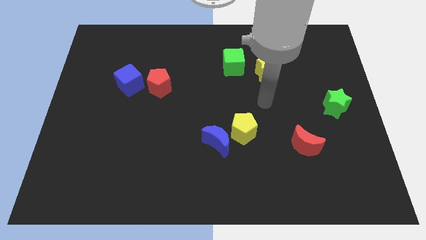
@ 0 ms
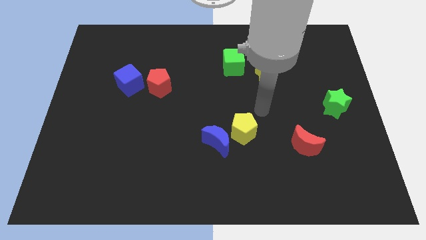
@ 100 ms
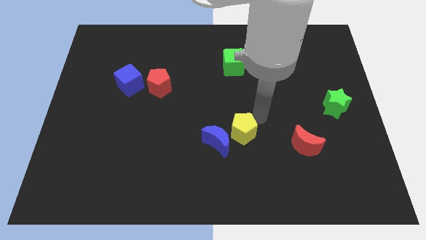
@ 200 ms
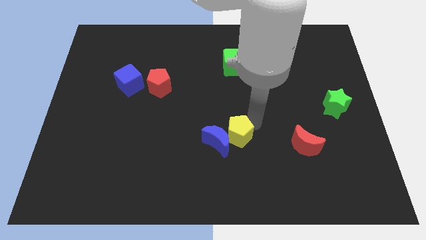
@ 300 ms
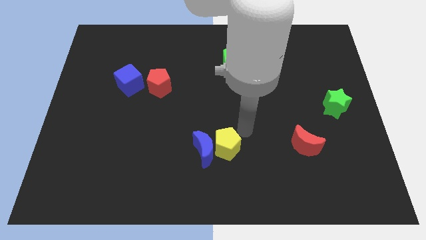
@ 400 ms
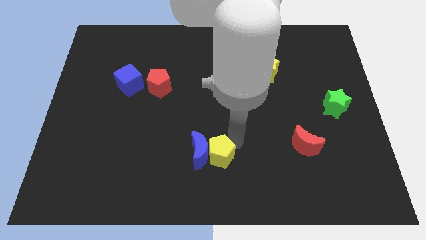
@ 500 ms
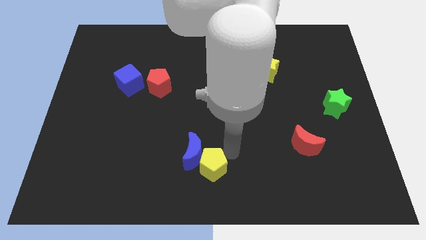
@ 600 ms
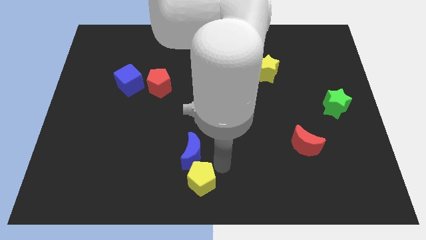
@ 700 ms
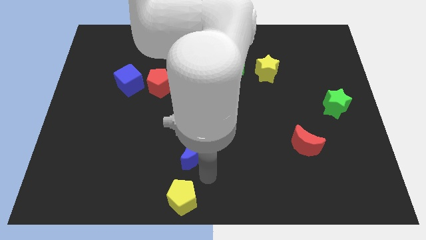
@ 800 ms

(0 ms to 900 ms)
separate the blue moon from the yellow pentagon

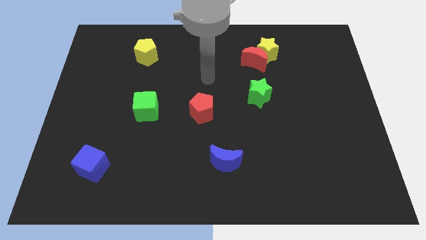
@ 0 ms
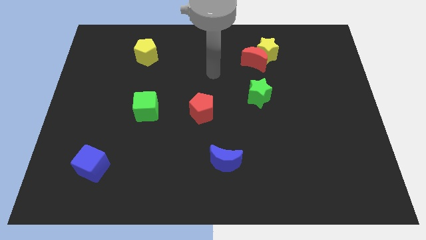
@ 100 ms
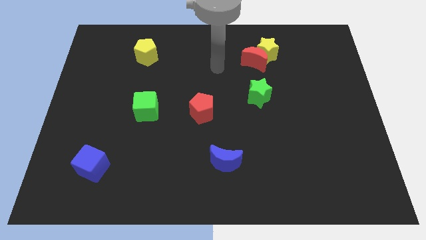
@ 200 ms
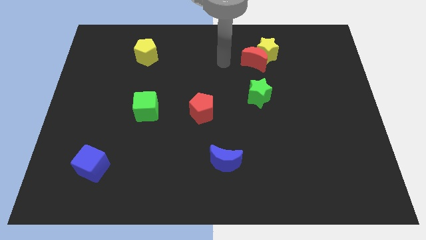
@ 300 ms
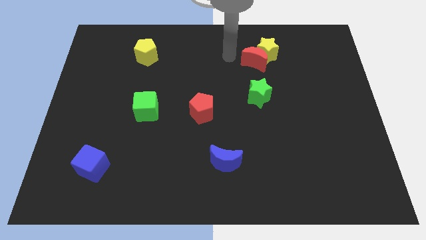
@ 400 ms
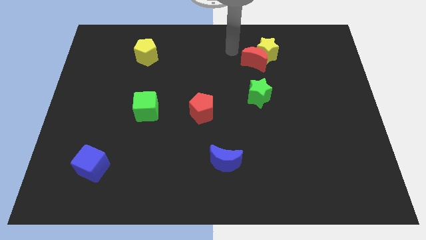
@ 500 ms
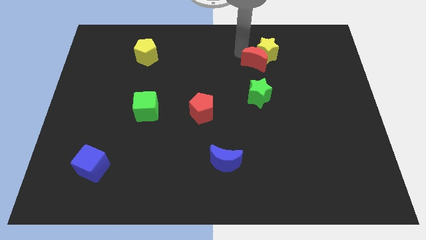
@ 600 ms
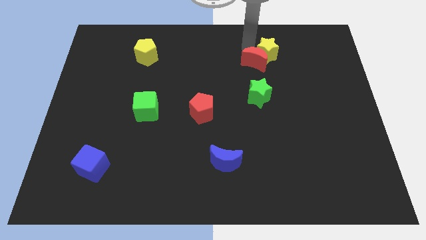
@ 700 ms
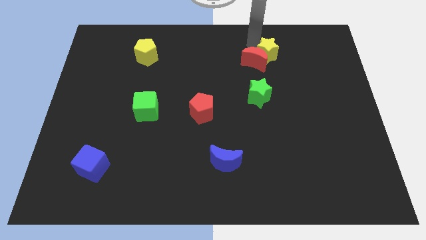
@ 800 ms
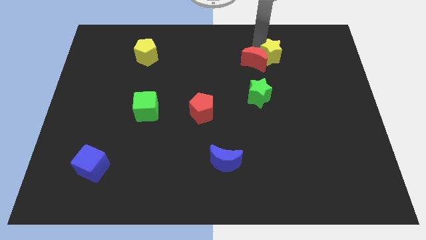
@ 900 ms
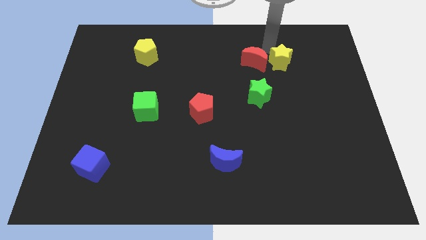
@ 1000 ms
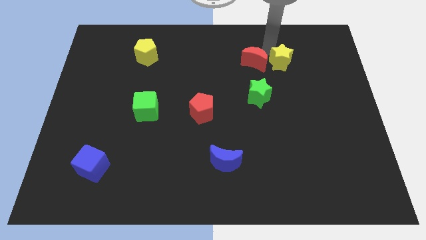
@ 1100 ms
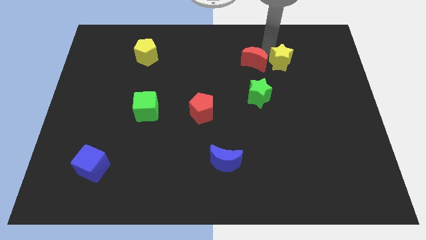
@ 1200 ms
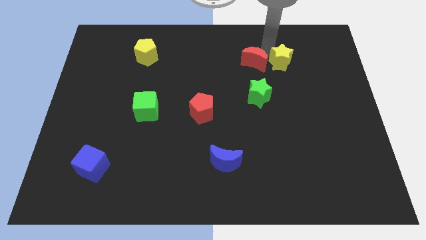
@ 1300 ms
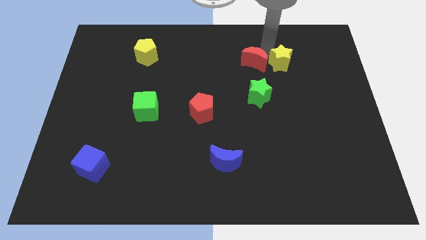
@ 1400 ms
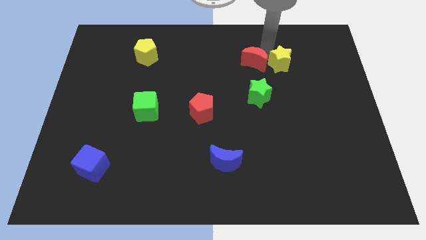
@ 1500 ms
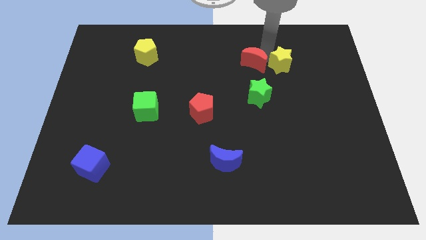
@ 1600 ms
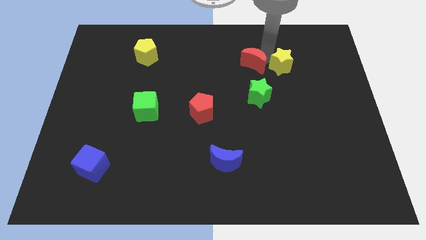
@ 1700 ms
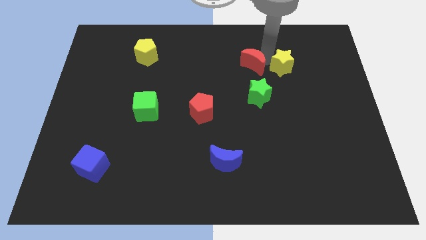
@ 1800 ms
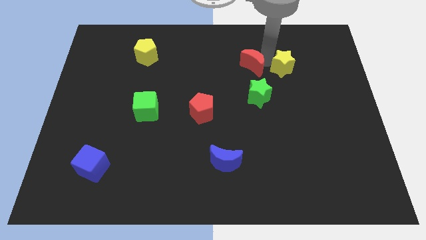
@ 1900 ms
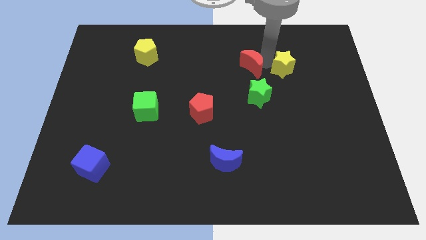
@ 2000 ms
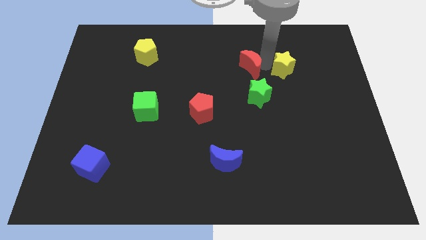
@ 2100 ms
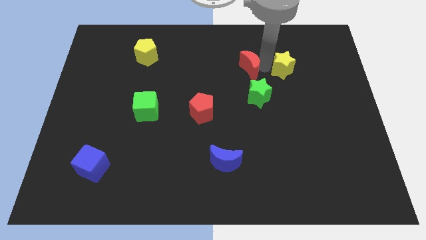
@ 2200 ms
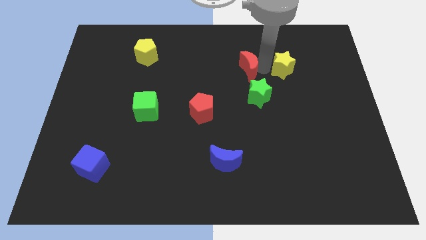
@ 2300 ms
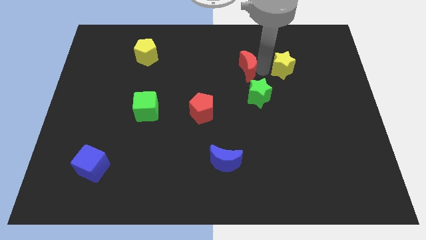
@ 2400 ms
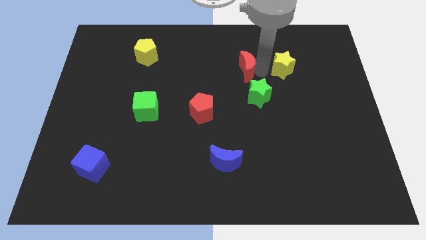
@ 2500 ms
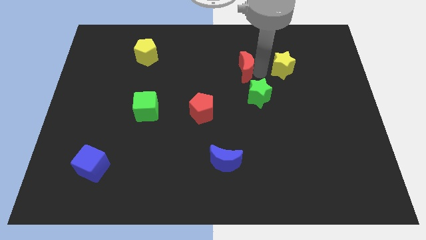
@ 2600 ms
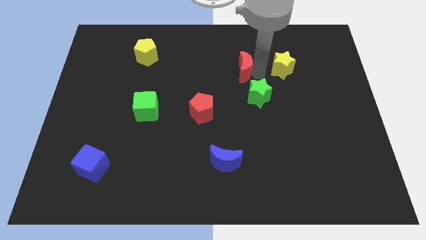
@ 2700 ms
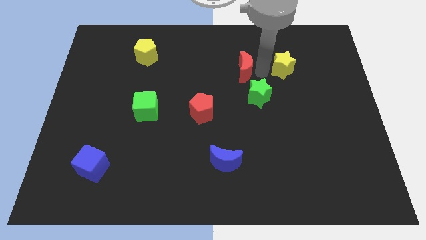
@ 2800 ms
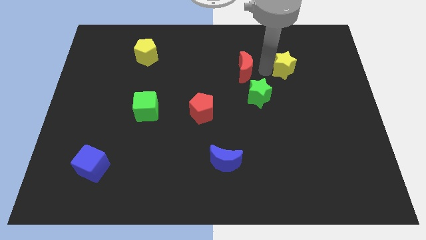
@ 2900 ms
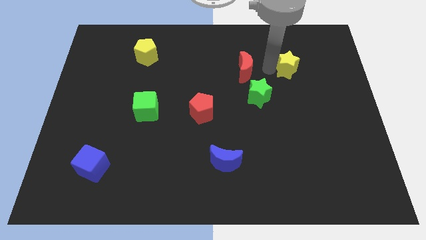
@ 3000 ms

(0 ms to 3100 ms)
separate the red moon from the yellow star

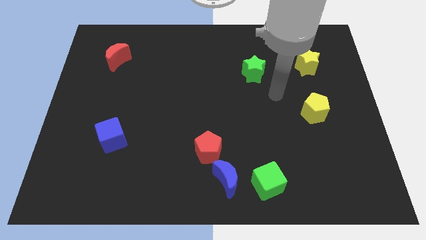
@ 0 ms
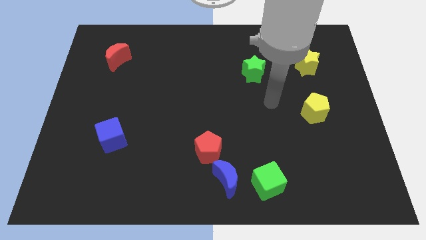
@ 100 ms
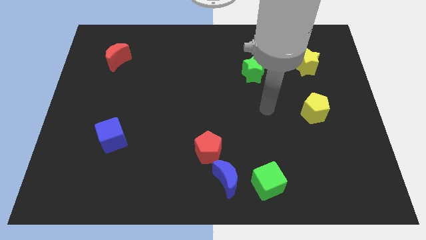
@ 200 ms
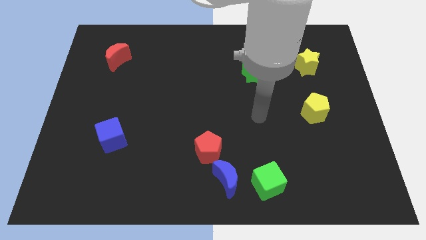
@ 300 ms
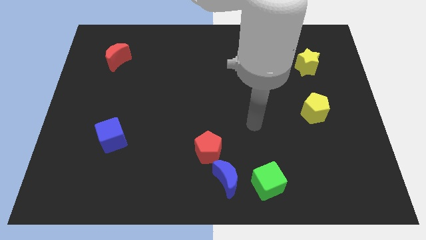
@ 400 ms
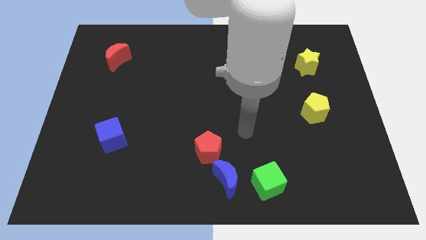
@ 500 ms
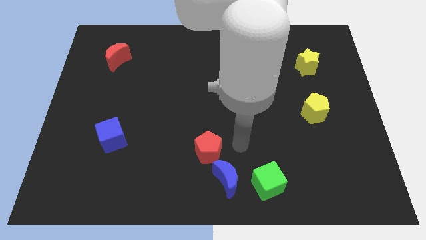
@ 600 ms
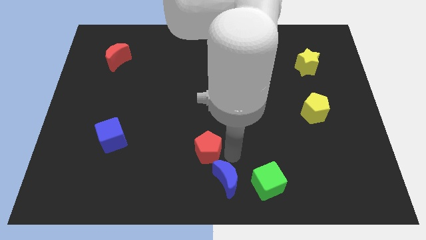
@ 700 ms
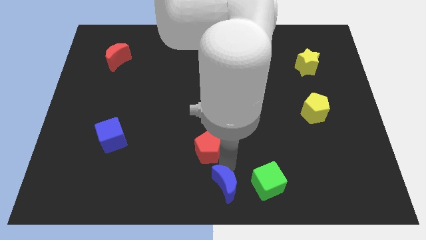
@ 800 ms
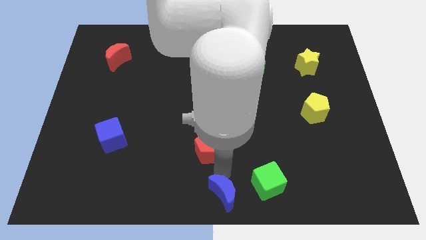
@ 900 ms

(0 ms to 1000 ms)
pull the red pentagon apart from the blue moon

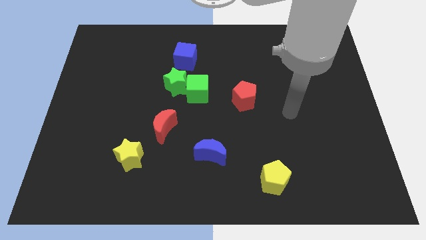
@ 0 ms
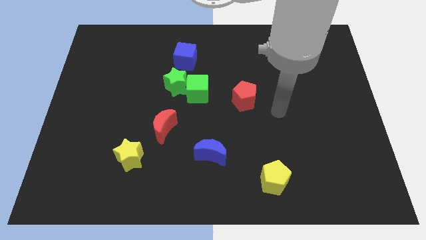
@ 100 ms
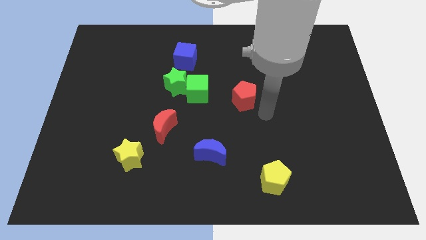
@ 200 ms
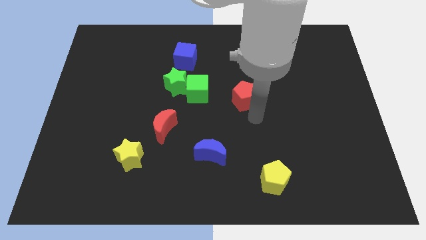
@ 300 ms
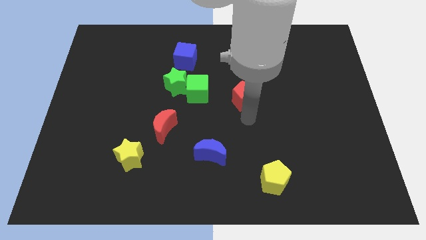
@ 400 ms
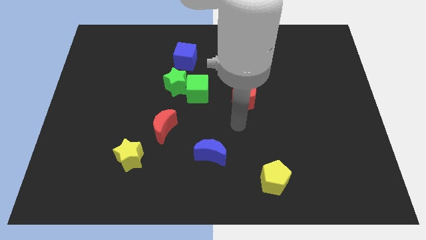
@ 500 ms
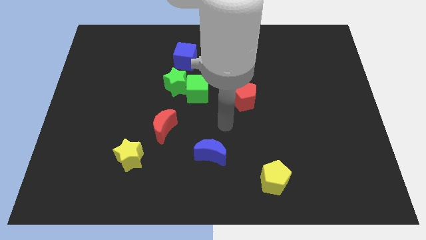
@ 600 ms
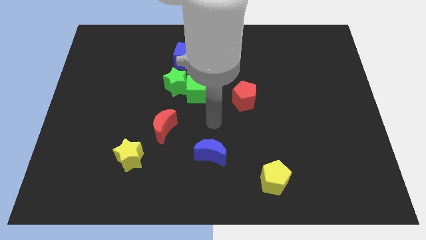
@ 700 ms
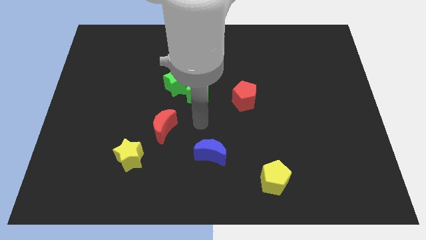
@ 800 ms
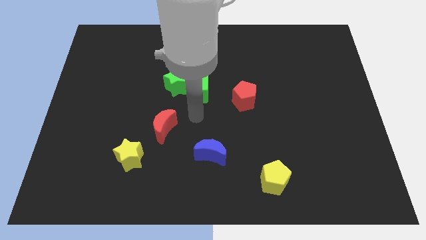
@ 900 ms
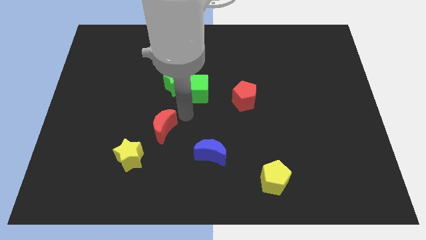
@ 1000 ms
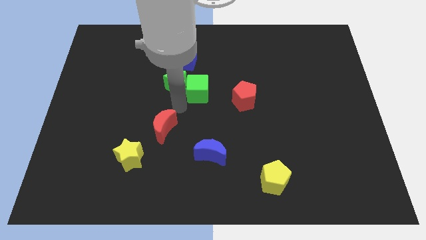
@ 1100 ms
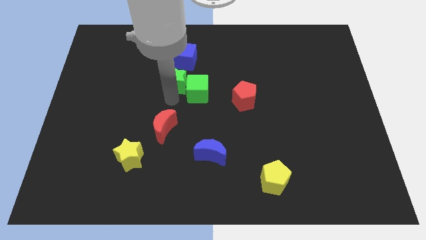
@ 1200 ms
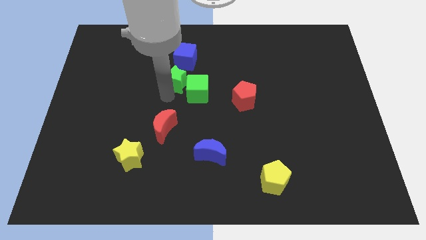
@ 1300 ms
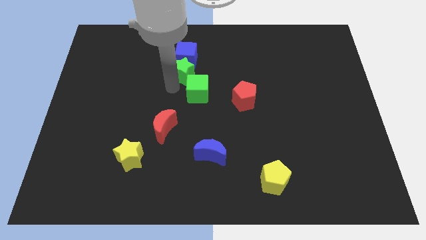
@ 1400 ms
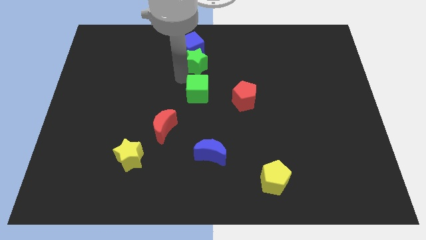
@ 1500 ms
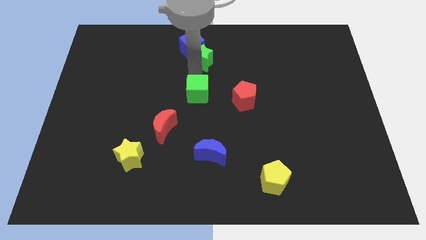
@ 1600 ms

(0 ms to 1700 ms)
move the green cube away from the green star

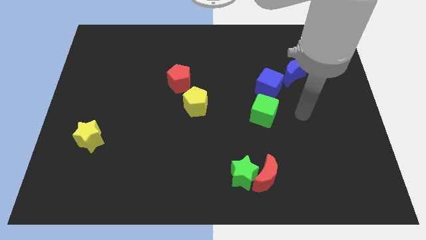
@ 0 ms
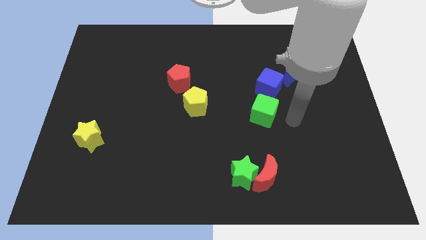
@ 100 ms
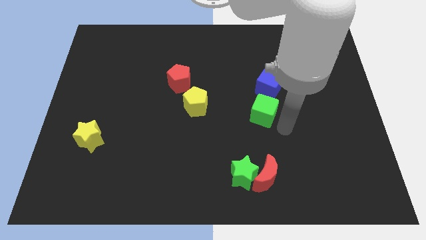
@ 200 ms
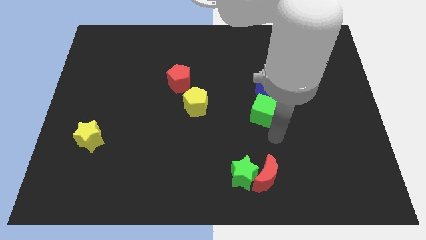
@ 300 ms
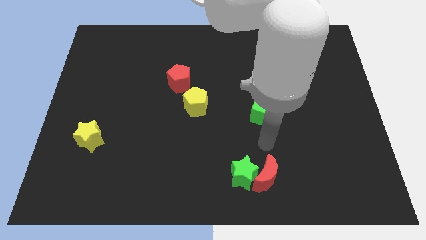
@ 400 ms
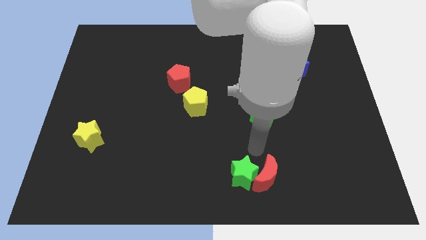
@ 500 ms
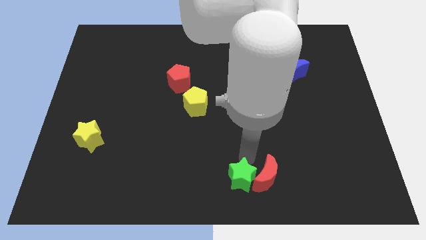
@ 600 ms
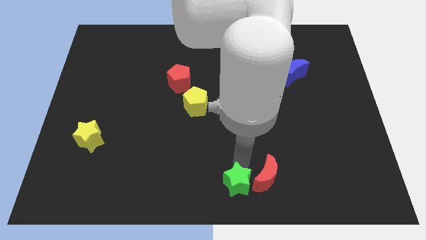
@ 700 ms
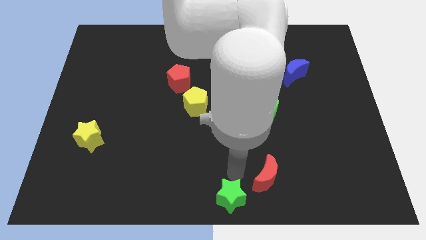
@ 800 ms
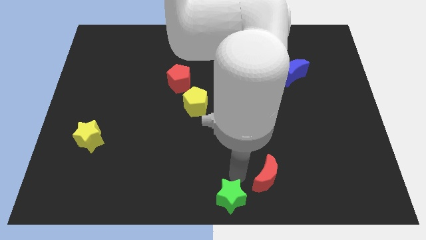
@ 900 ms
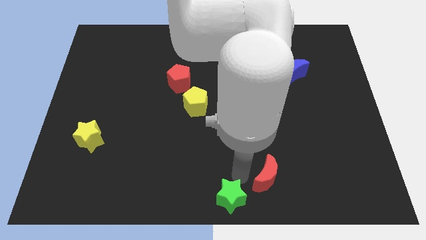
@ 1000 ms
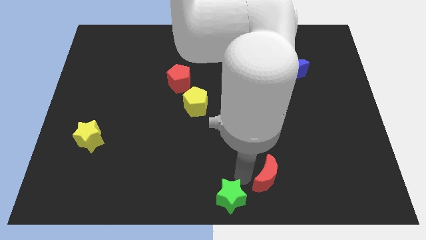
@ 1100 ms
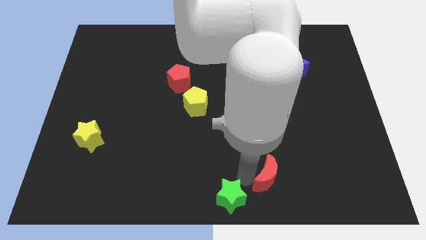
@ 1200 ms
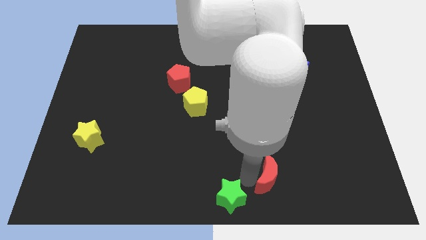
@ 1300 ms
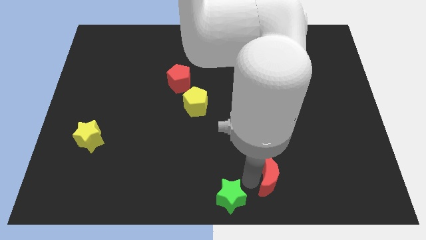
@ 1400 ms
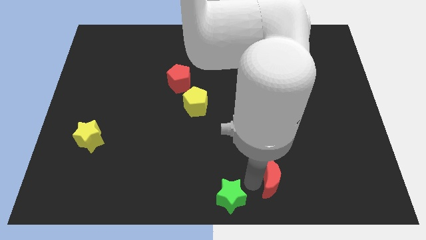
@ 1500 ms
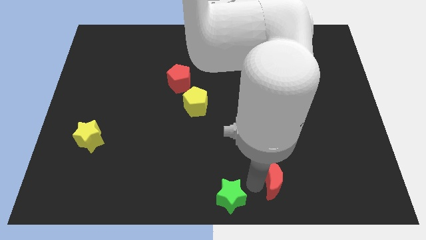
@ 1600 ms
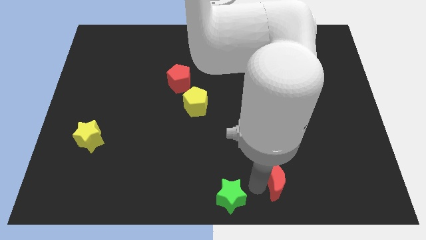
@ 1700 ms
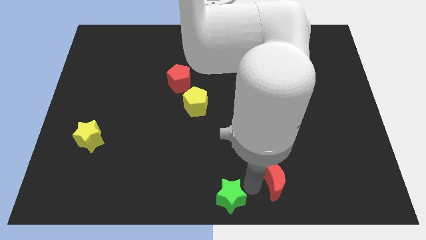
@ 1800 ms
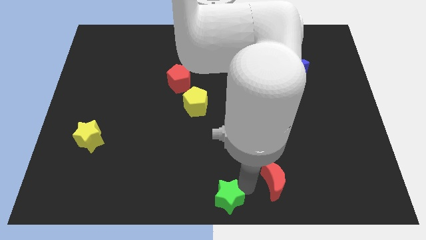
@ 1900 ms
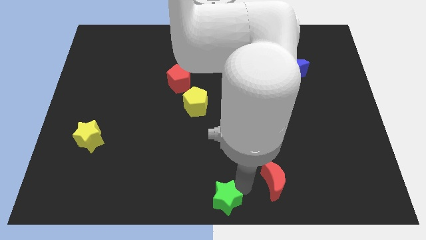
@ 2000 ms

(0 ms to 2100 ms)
separate the red moon from the green star

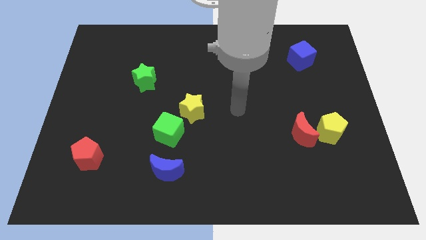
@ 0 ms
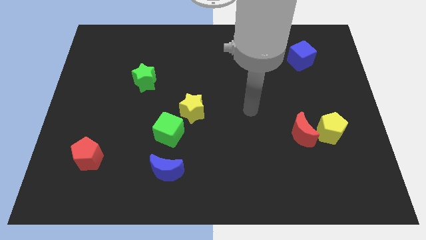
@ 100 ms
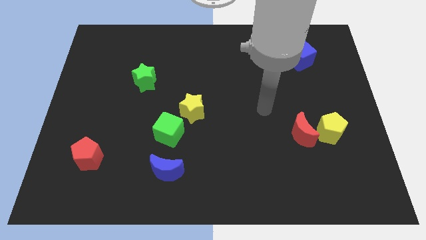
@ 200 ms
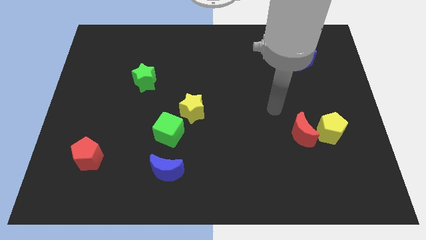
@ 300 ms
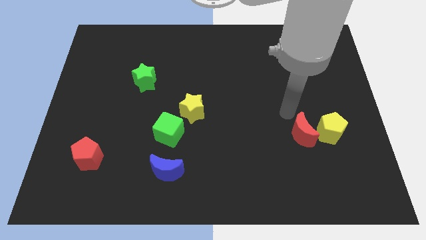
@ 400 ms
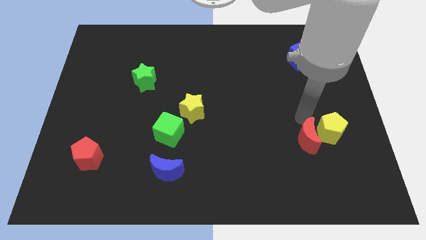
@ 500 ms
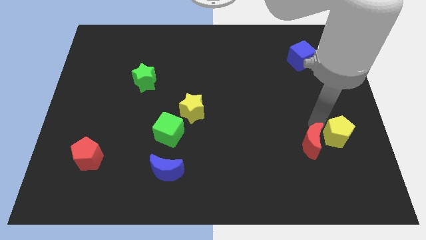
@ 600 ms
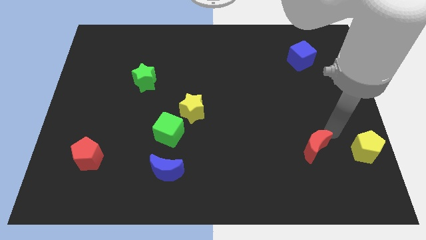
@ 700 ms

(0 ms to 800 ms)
pull the red moon apart from the yellow pentagon
